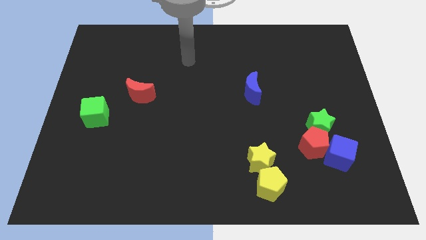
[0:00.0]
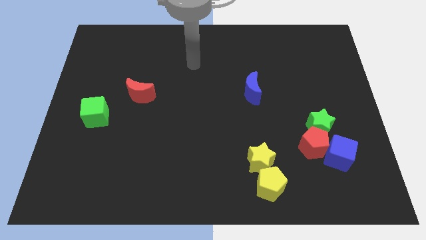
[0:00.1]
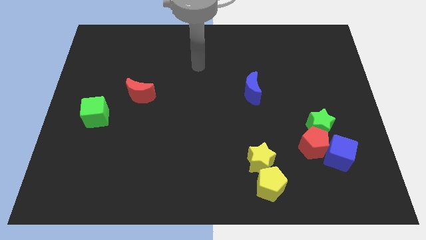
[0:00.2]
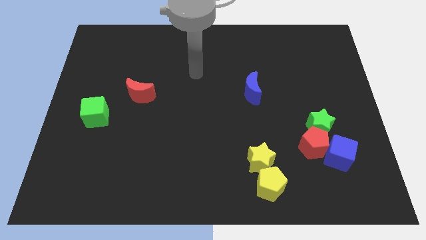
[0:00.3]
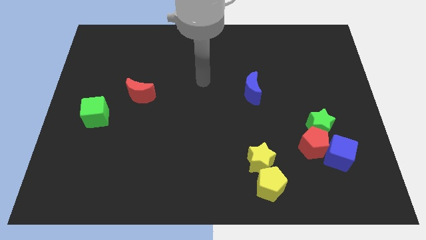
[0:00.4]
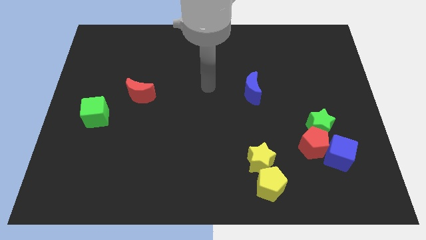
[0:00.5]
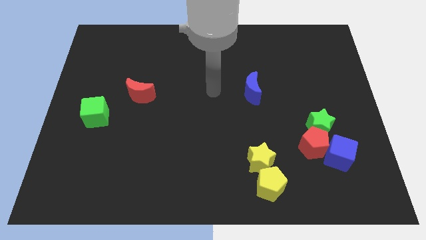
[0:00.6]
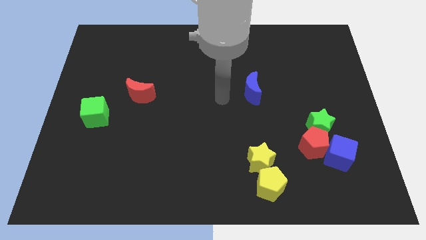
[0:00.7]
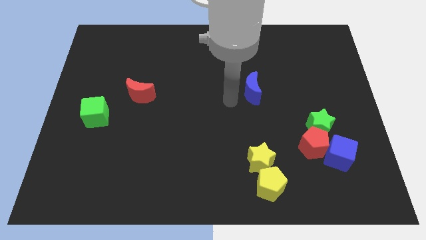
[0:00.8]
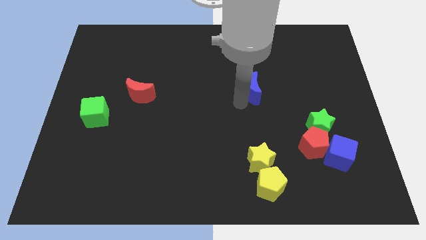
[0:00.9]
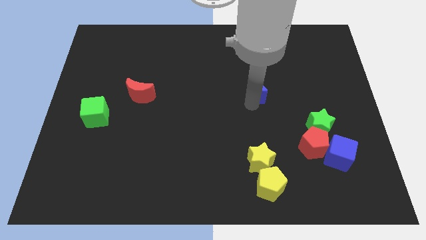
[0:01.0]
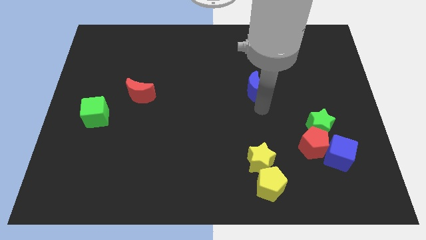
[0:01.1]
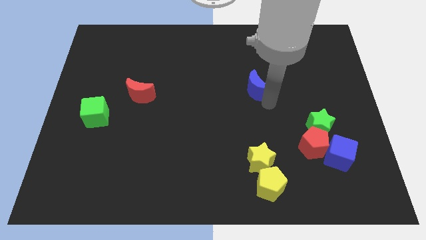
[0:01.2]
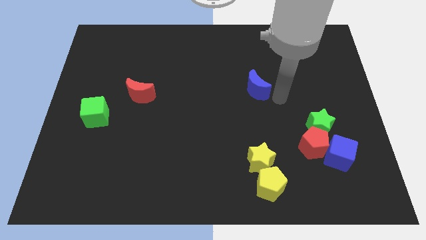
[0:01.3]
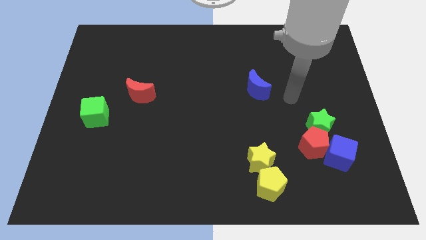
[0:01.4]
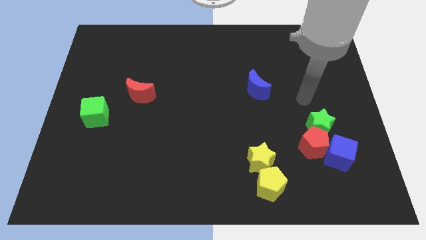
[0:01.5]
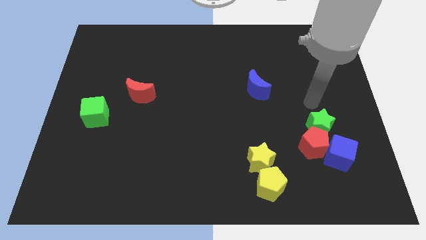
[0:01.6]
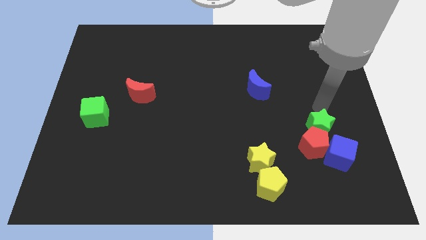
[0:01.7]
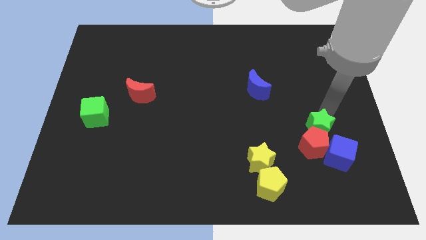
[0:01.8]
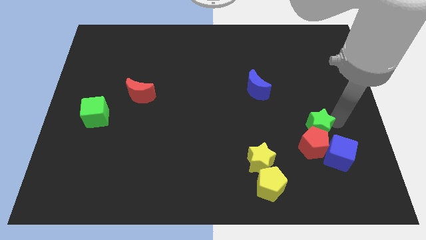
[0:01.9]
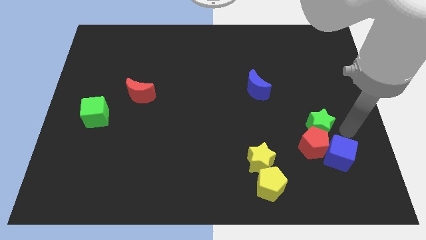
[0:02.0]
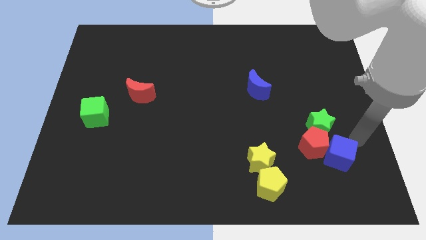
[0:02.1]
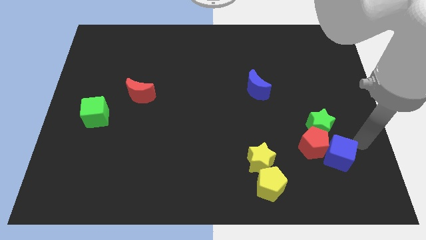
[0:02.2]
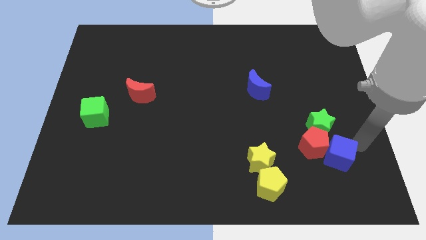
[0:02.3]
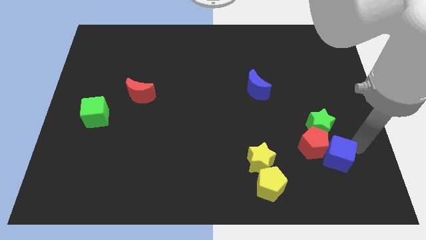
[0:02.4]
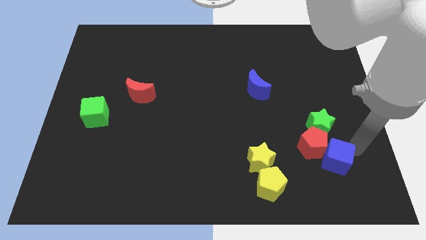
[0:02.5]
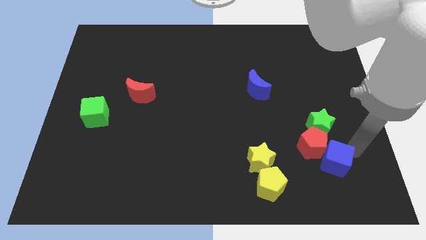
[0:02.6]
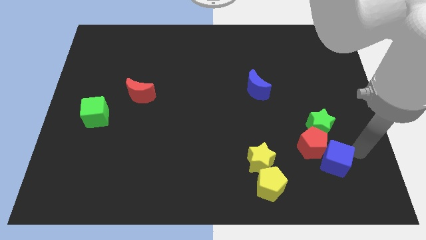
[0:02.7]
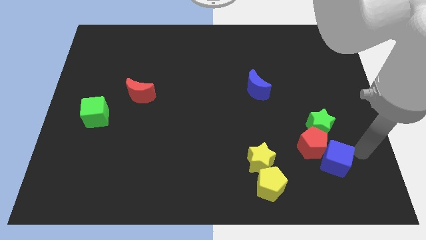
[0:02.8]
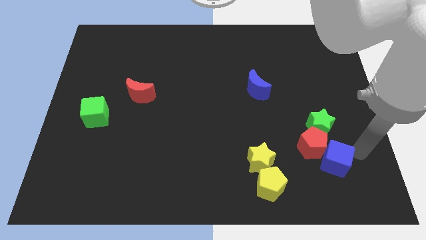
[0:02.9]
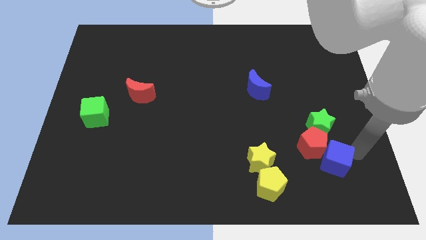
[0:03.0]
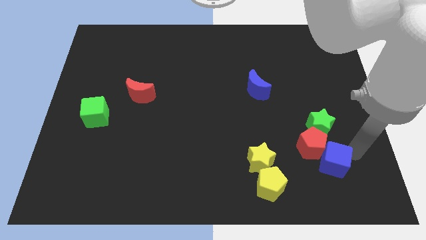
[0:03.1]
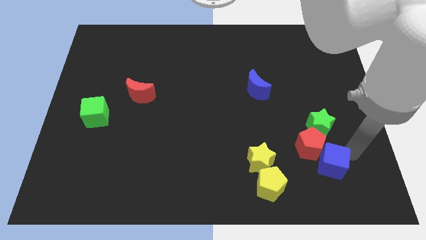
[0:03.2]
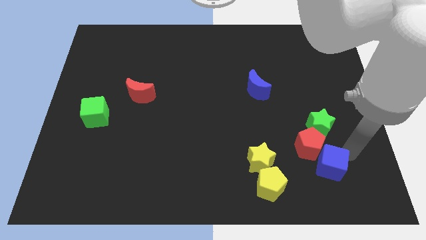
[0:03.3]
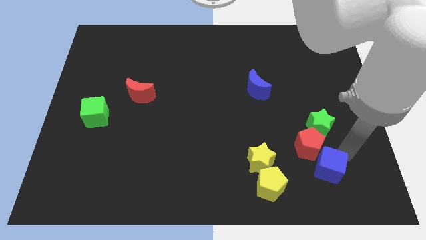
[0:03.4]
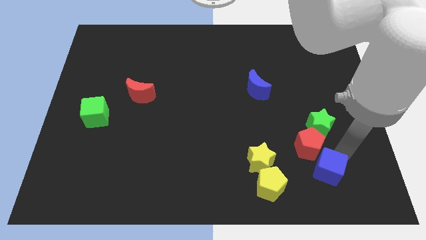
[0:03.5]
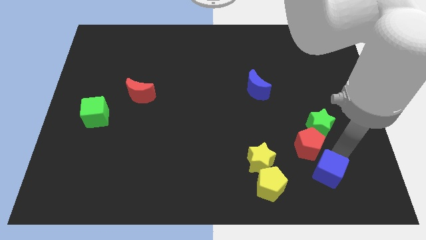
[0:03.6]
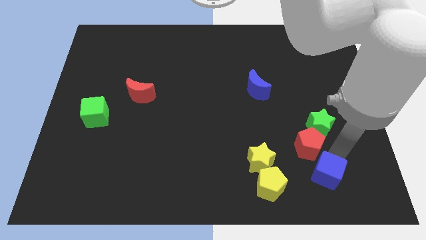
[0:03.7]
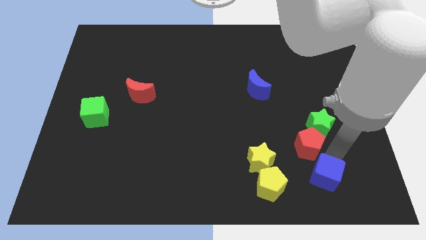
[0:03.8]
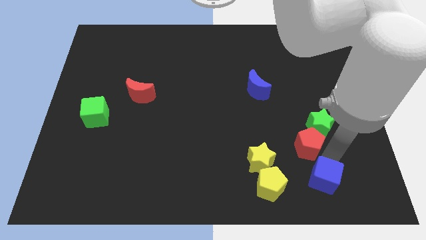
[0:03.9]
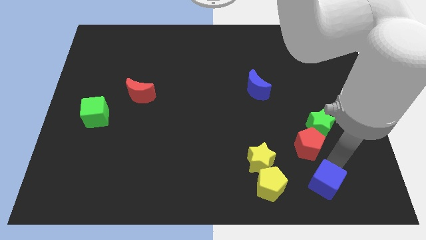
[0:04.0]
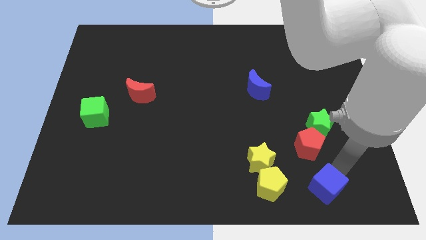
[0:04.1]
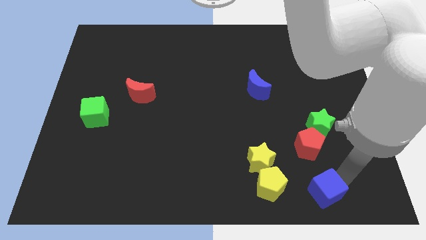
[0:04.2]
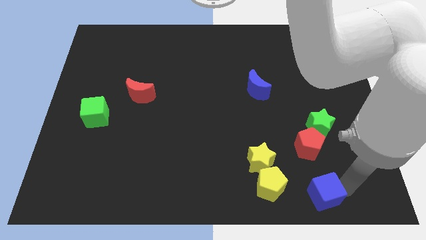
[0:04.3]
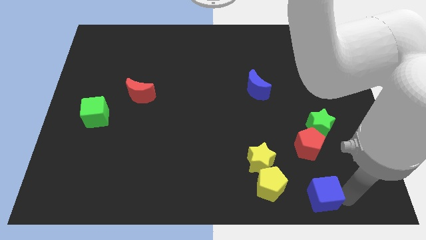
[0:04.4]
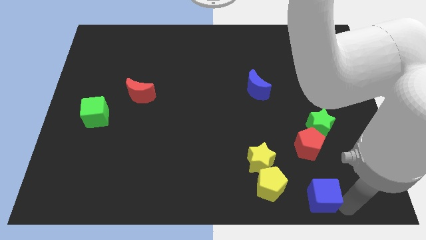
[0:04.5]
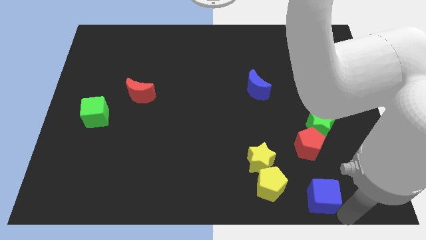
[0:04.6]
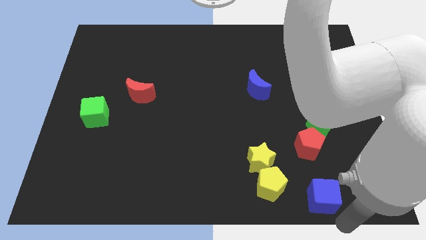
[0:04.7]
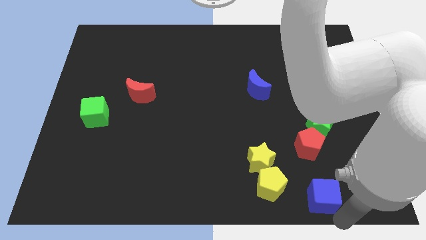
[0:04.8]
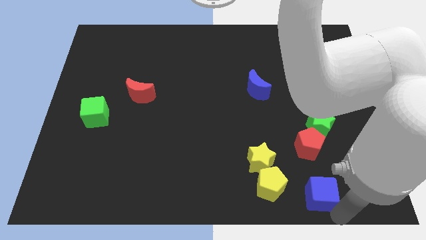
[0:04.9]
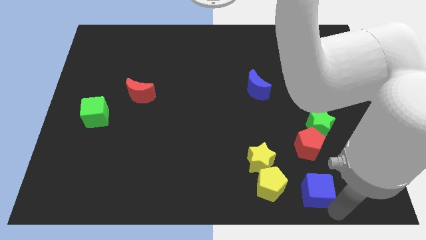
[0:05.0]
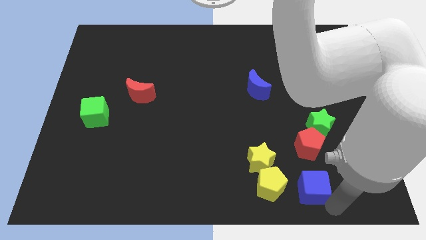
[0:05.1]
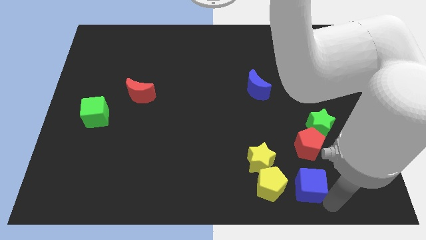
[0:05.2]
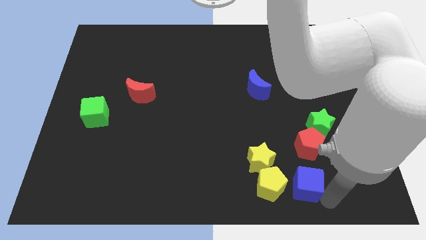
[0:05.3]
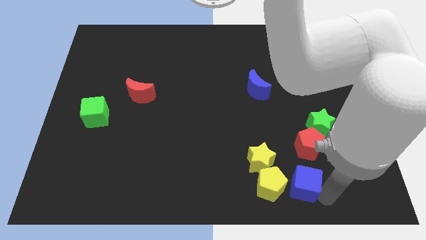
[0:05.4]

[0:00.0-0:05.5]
push the blue cube diagonally up and to the right of the yellow pentagon

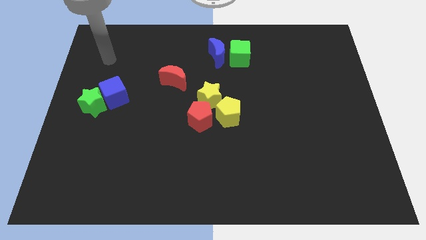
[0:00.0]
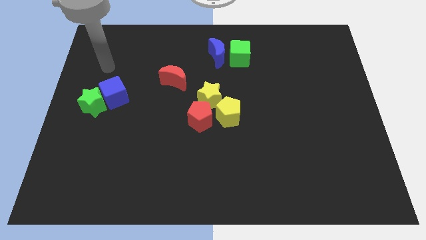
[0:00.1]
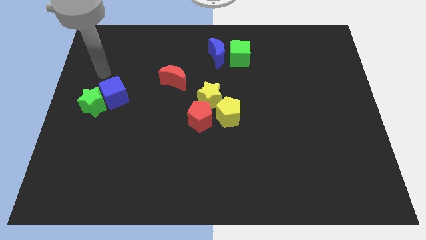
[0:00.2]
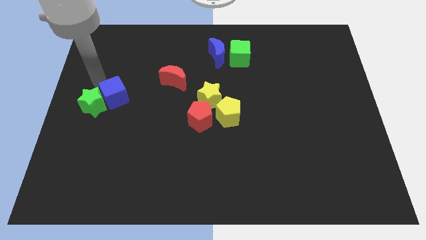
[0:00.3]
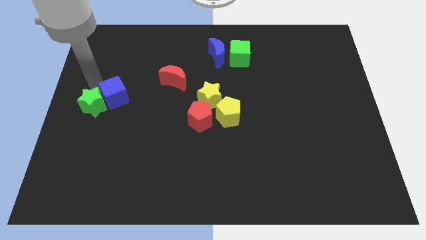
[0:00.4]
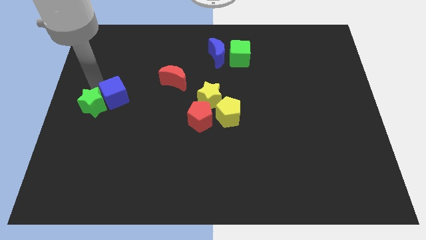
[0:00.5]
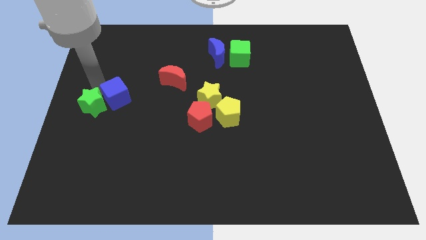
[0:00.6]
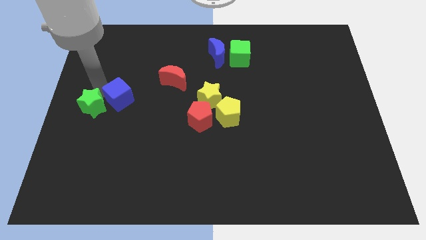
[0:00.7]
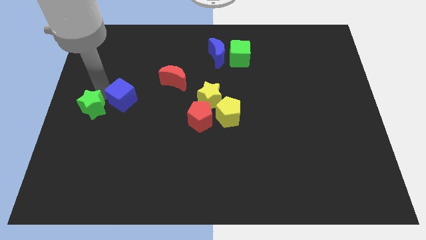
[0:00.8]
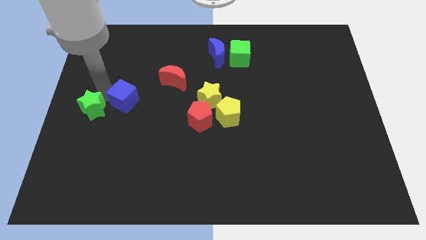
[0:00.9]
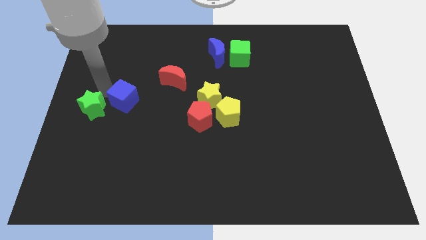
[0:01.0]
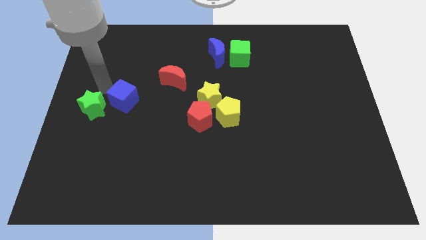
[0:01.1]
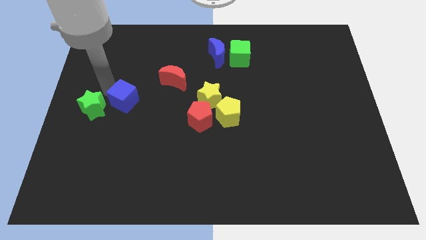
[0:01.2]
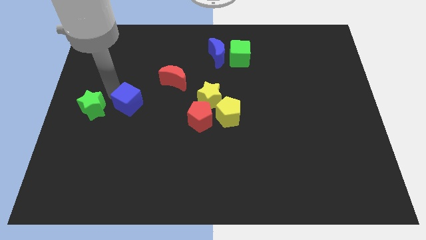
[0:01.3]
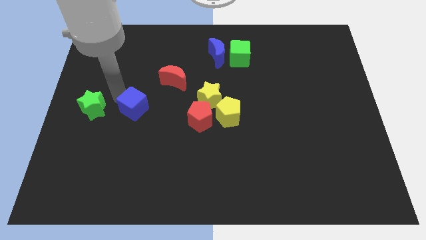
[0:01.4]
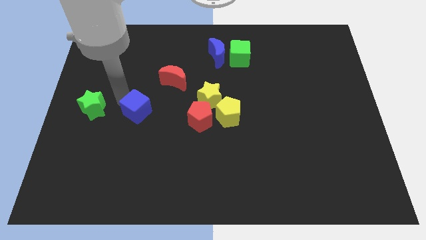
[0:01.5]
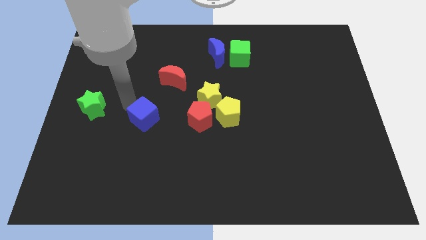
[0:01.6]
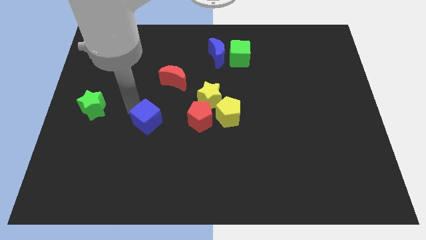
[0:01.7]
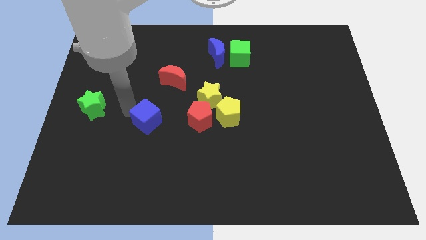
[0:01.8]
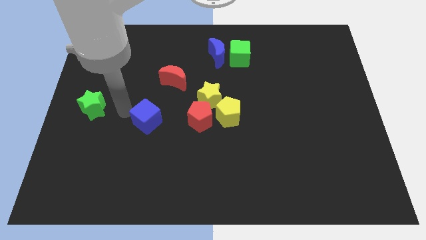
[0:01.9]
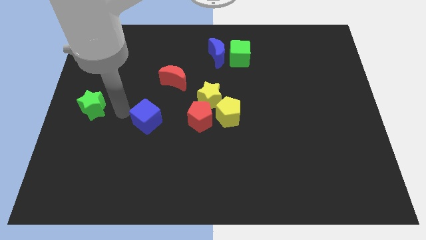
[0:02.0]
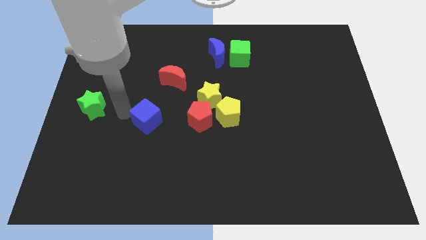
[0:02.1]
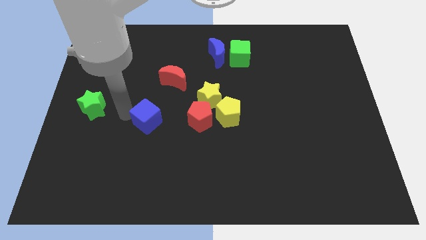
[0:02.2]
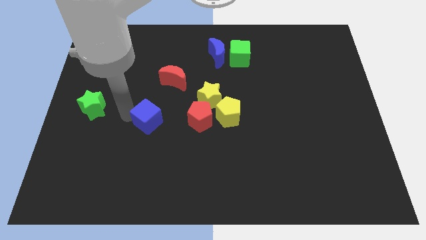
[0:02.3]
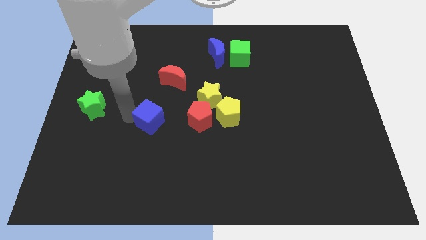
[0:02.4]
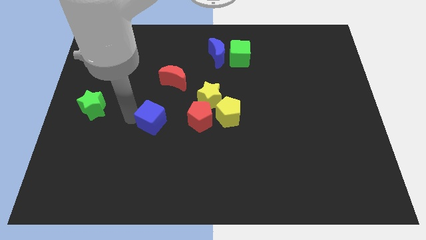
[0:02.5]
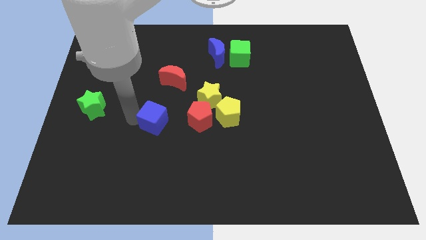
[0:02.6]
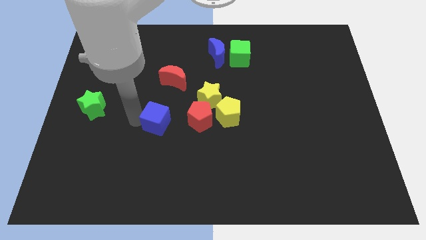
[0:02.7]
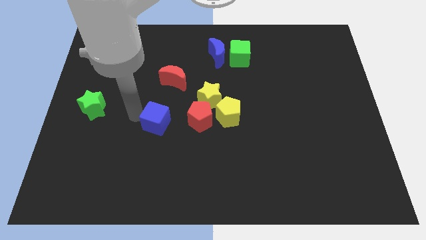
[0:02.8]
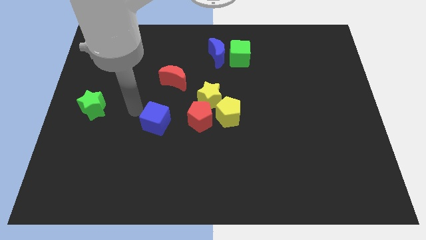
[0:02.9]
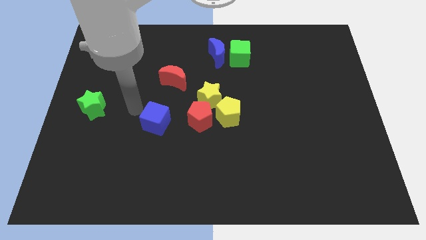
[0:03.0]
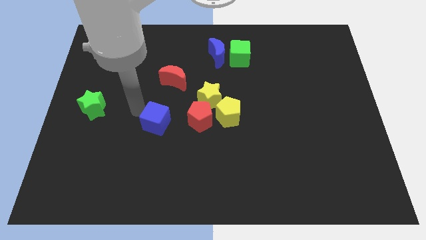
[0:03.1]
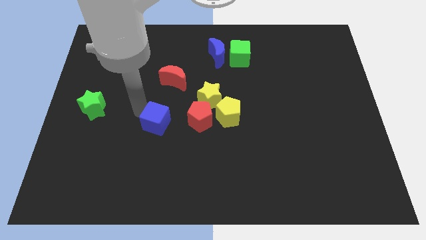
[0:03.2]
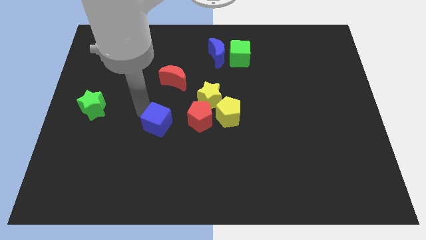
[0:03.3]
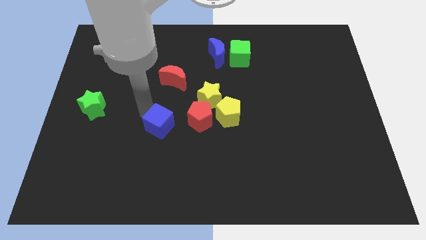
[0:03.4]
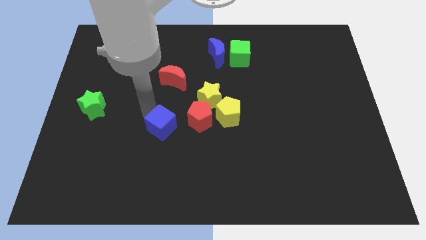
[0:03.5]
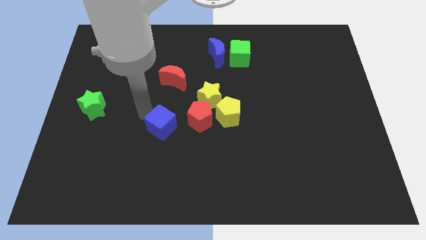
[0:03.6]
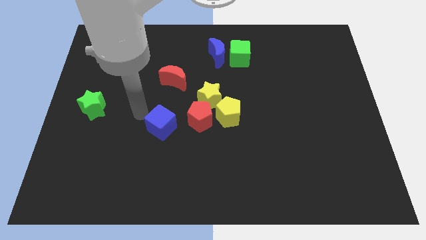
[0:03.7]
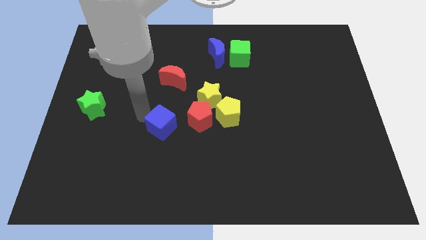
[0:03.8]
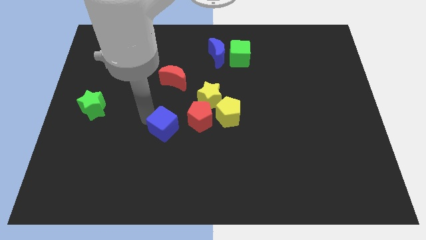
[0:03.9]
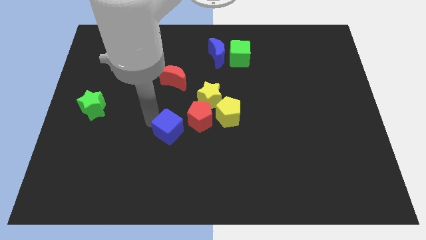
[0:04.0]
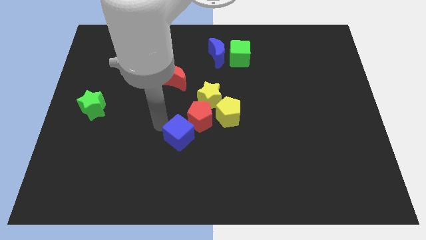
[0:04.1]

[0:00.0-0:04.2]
put the blue cube to the bottom of the red pentagon
